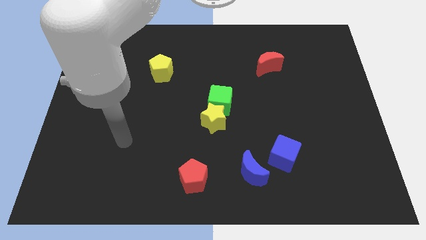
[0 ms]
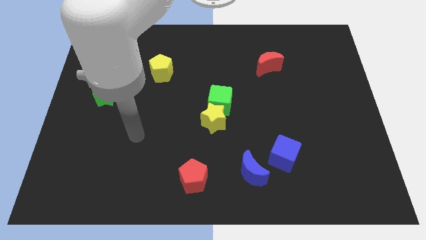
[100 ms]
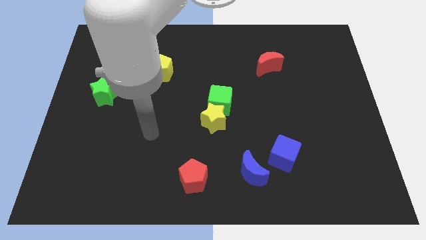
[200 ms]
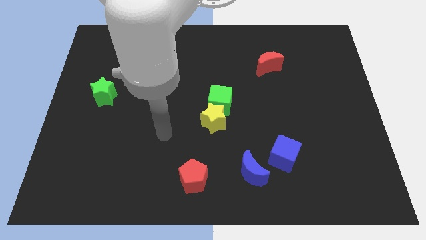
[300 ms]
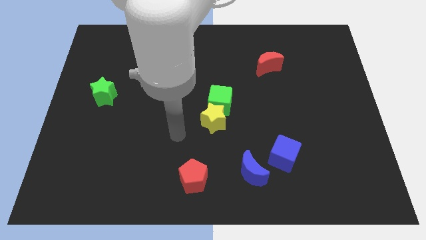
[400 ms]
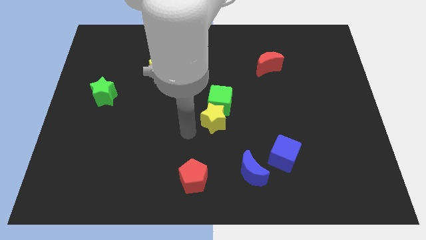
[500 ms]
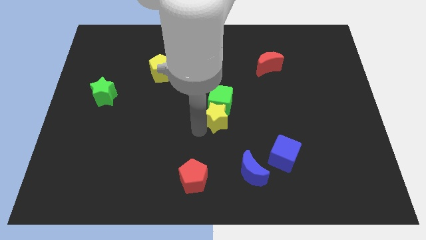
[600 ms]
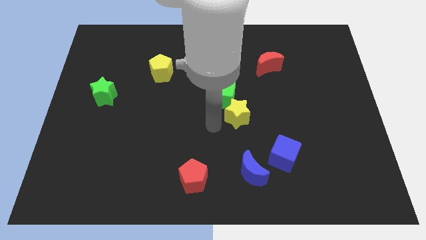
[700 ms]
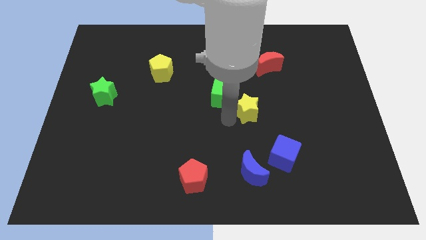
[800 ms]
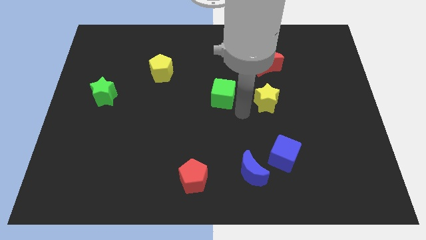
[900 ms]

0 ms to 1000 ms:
separate the green cube from the yellow star

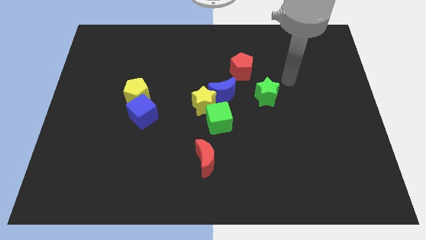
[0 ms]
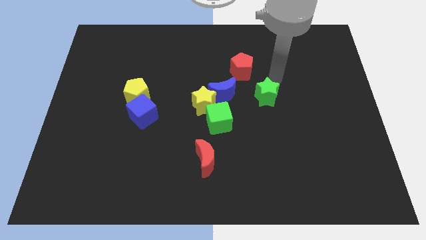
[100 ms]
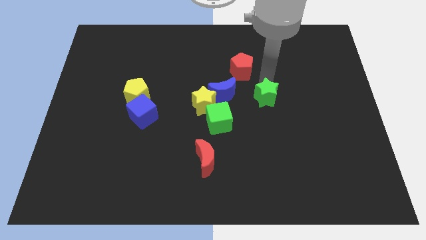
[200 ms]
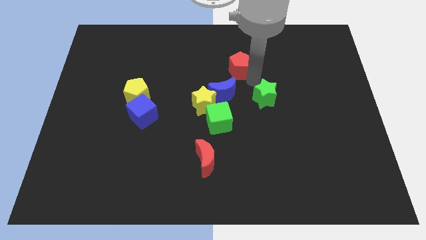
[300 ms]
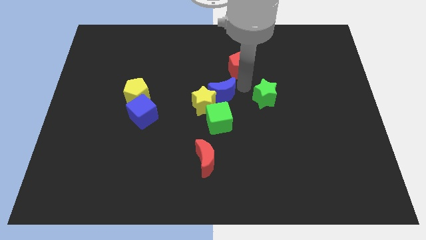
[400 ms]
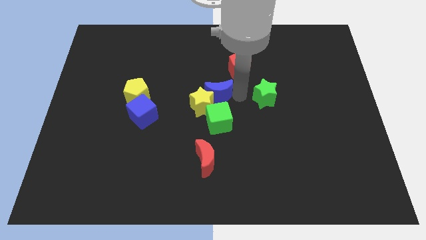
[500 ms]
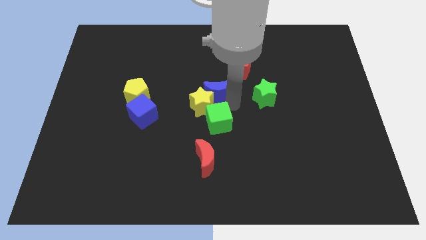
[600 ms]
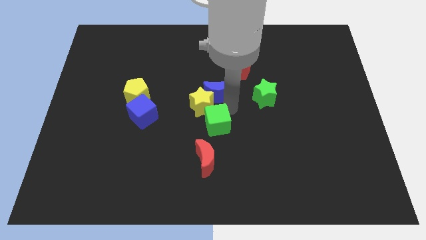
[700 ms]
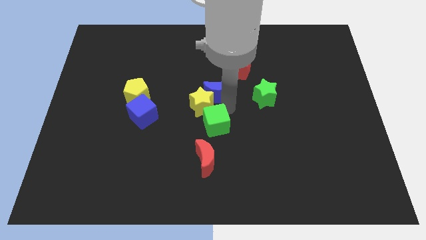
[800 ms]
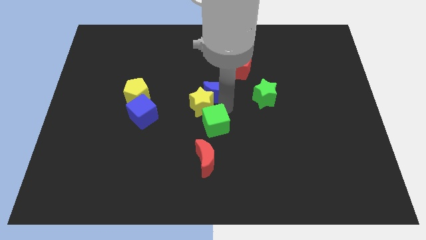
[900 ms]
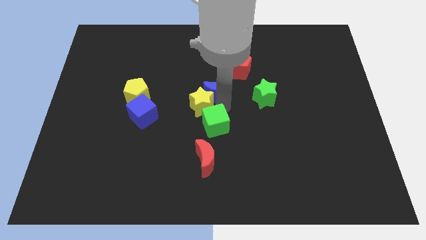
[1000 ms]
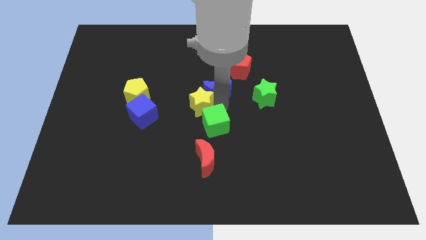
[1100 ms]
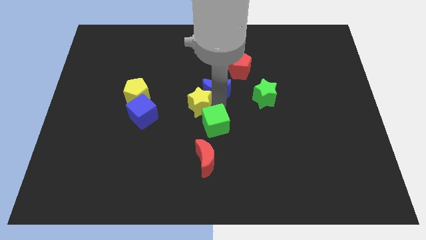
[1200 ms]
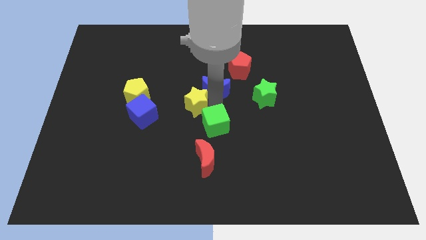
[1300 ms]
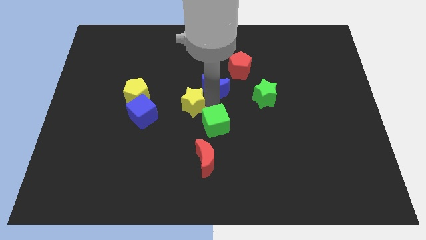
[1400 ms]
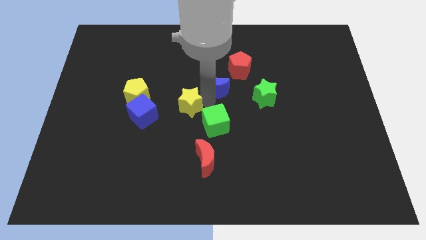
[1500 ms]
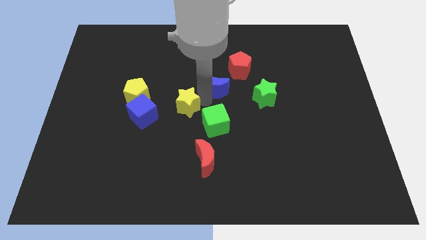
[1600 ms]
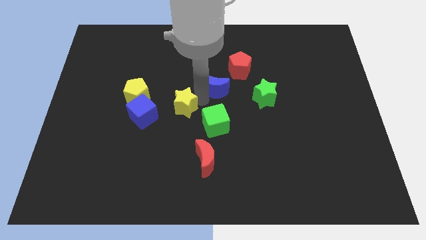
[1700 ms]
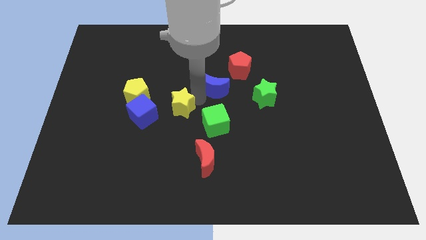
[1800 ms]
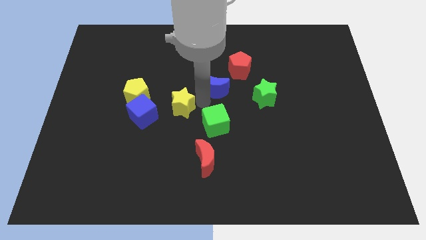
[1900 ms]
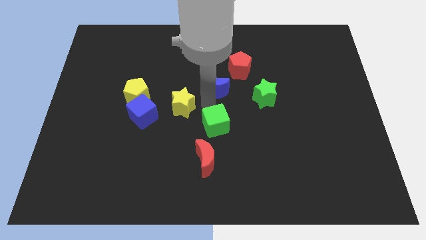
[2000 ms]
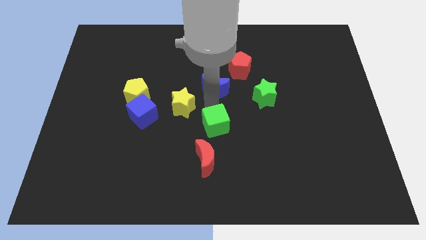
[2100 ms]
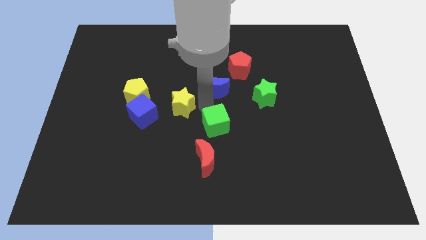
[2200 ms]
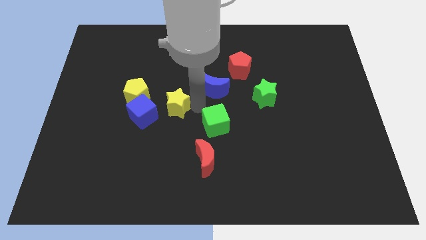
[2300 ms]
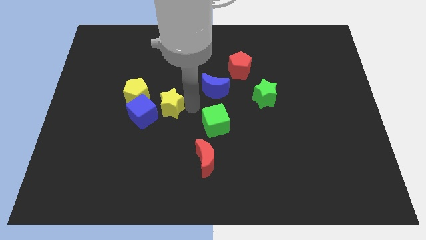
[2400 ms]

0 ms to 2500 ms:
separate the yellow star from the blue moon and green cube

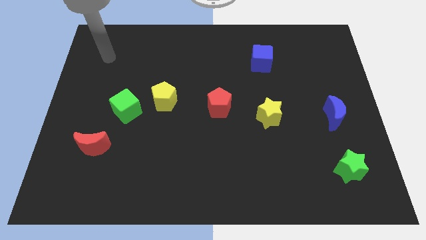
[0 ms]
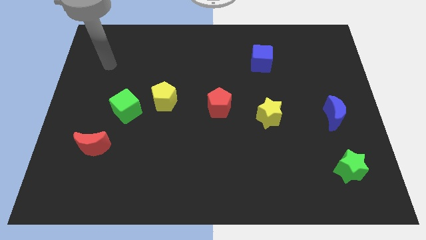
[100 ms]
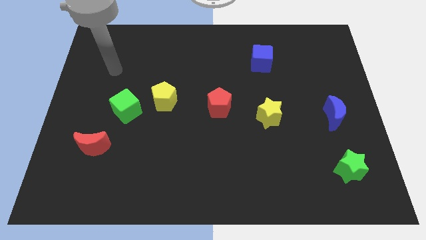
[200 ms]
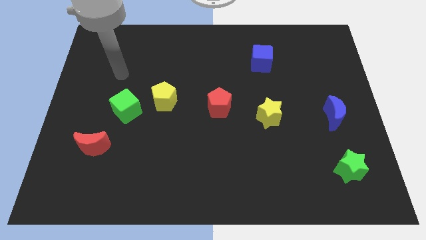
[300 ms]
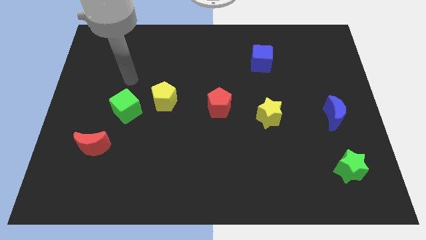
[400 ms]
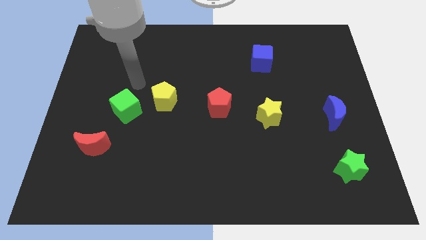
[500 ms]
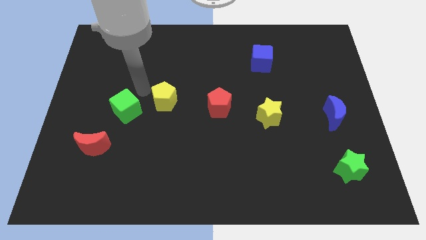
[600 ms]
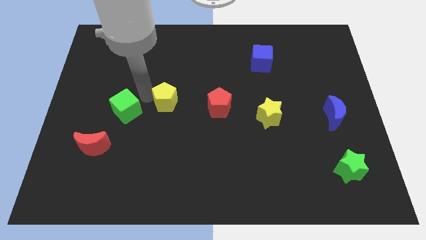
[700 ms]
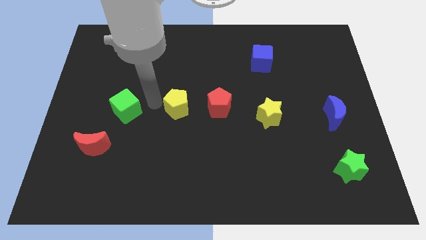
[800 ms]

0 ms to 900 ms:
move the green cube away from the yellow pentagon

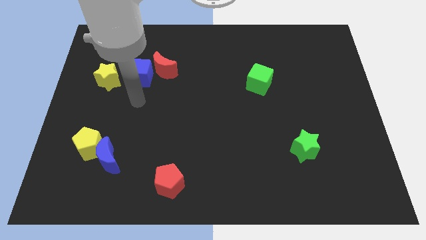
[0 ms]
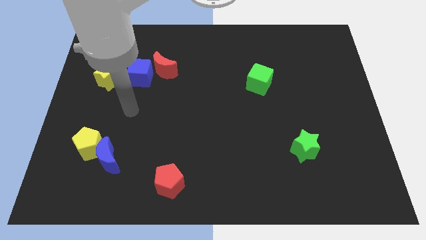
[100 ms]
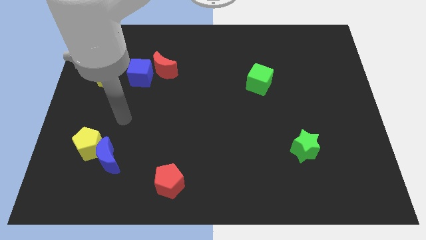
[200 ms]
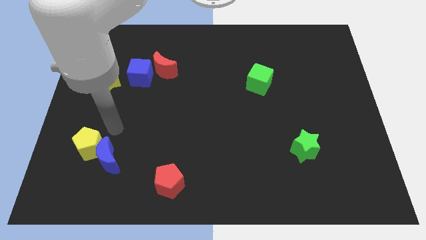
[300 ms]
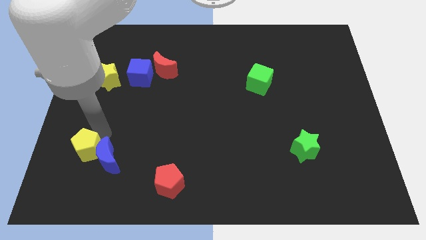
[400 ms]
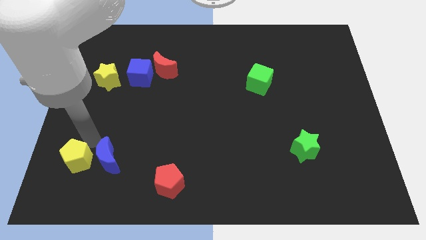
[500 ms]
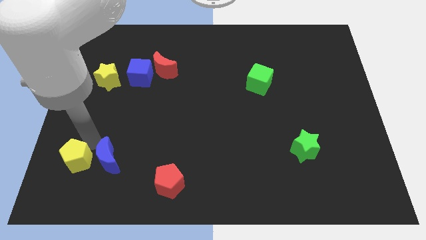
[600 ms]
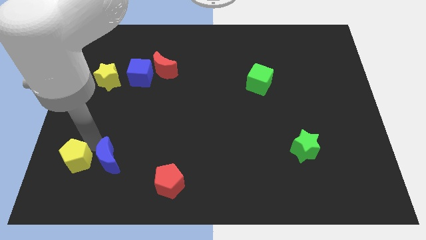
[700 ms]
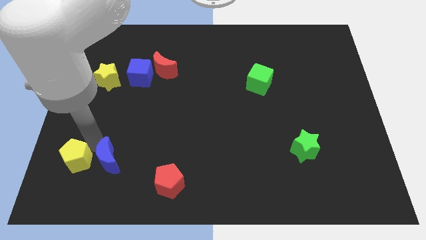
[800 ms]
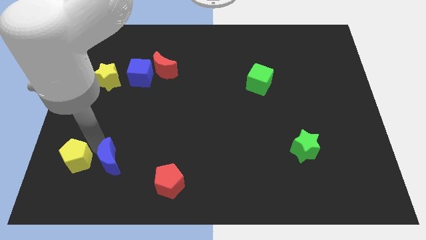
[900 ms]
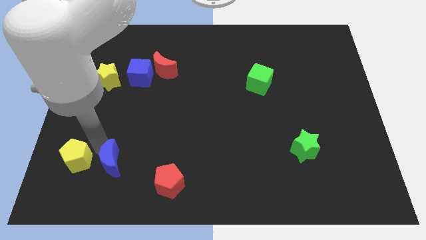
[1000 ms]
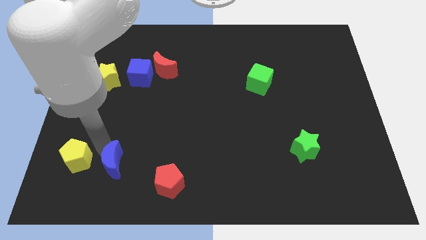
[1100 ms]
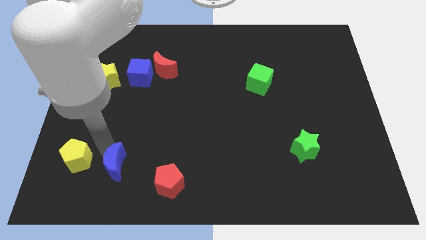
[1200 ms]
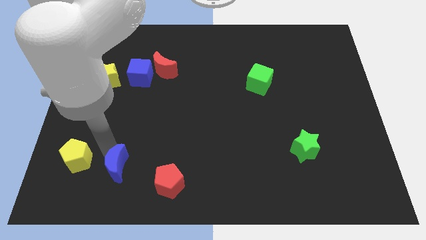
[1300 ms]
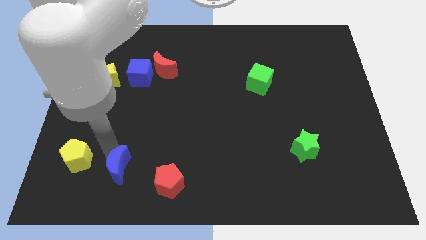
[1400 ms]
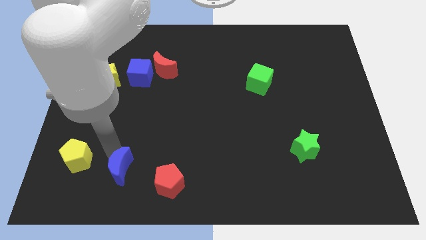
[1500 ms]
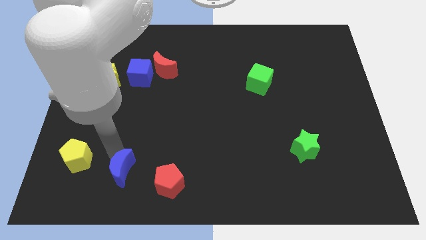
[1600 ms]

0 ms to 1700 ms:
separate the blue moon from the yellow pentagon

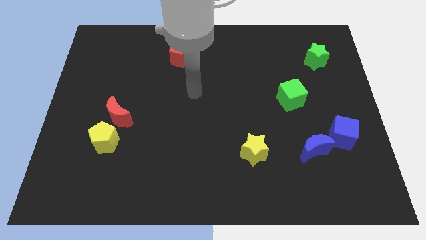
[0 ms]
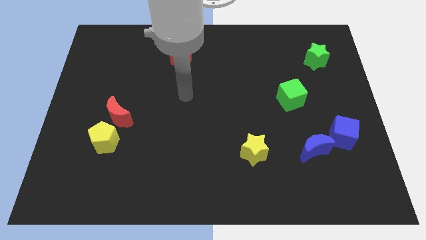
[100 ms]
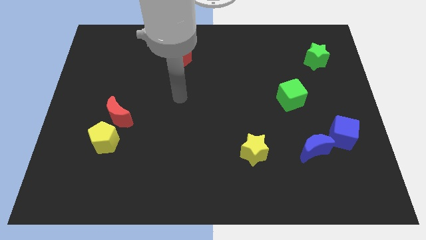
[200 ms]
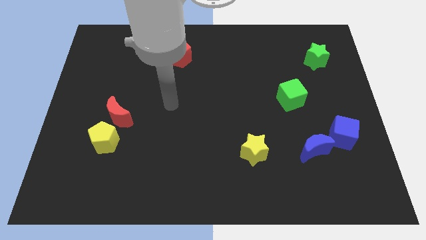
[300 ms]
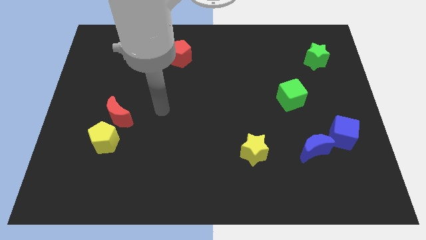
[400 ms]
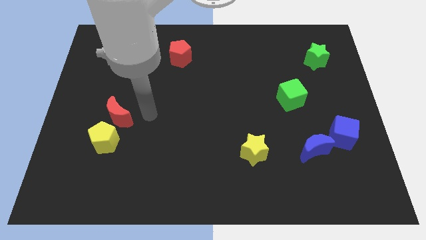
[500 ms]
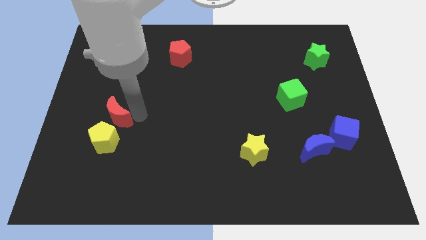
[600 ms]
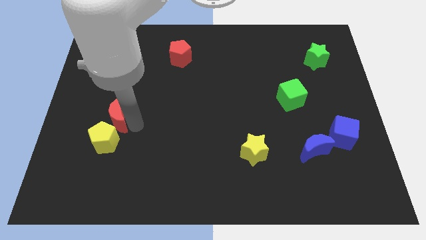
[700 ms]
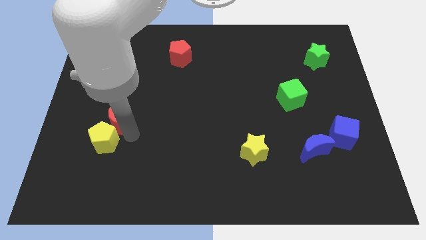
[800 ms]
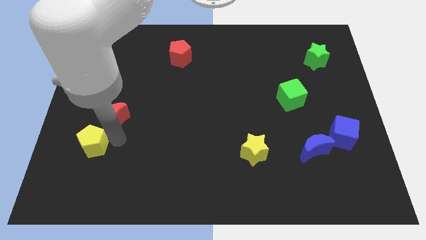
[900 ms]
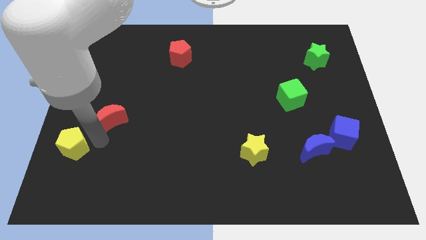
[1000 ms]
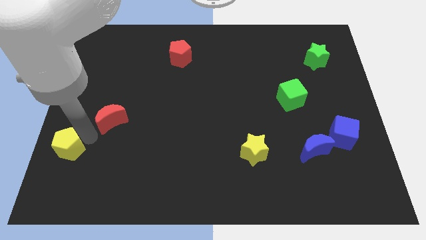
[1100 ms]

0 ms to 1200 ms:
pull the red moon apart from the yellow pentagon

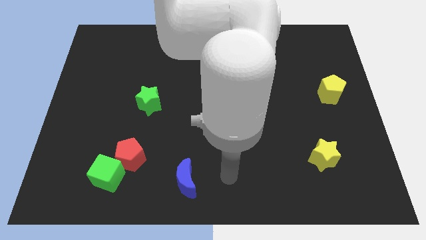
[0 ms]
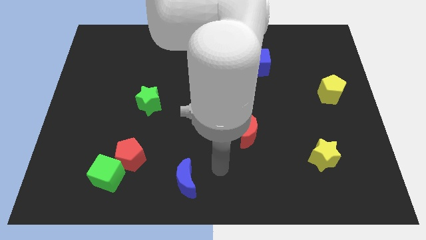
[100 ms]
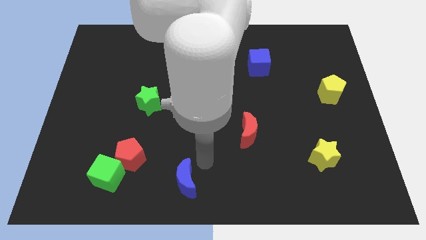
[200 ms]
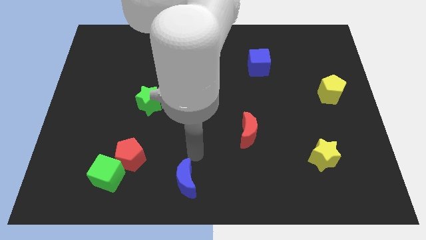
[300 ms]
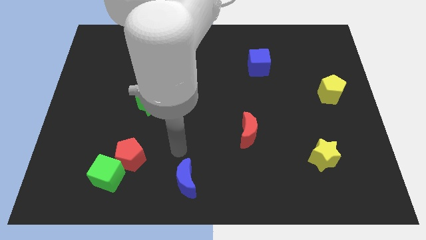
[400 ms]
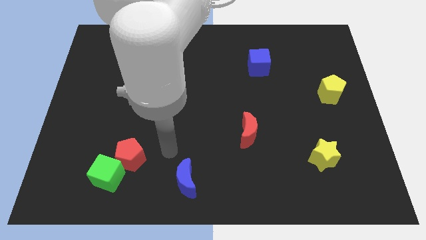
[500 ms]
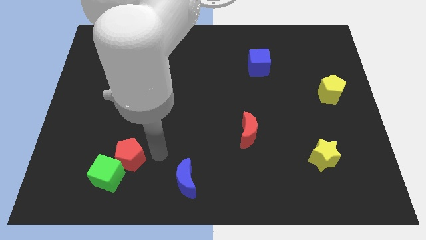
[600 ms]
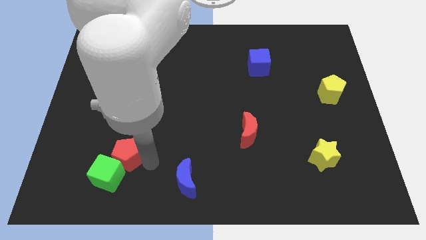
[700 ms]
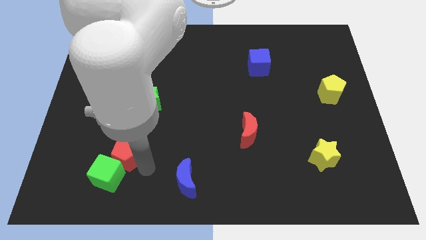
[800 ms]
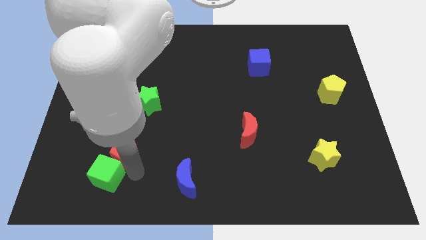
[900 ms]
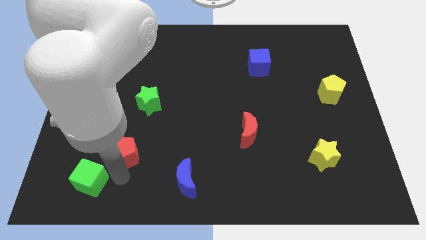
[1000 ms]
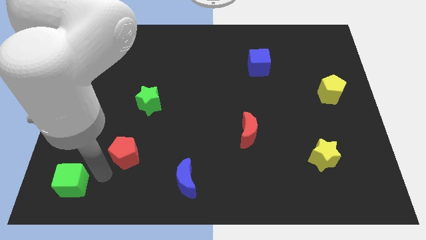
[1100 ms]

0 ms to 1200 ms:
pull the red pentagon apart from the green cube

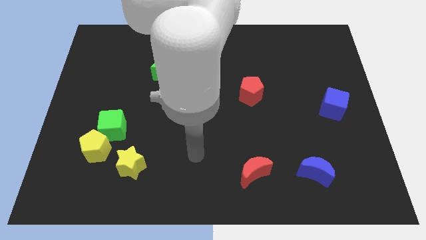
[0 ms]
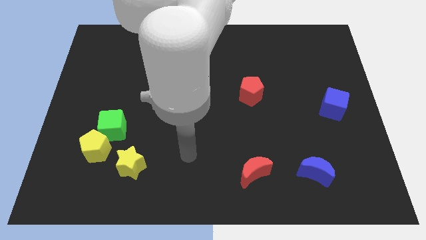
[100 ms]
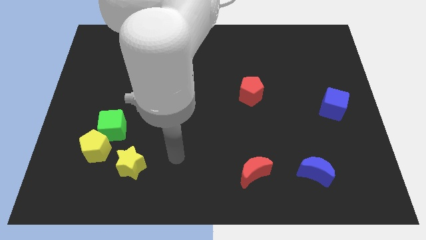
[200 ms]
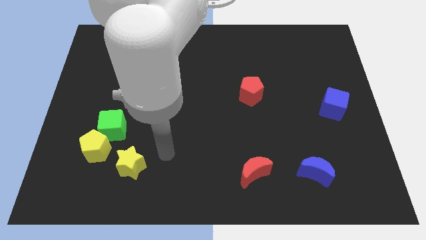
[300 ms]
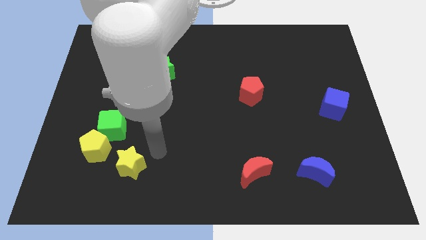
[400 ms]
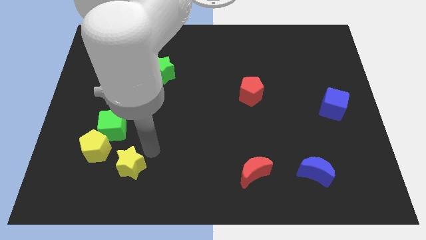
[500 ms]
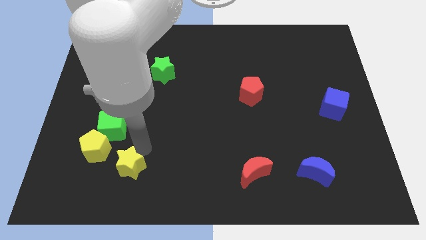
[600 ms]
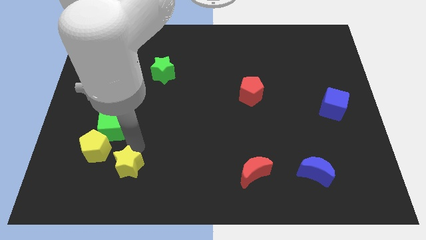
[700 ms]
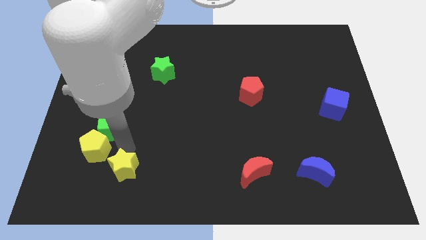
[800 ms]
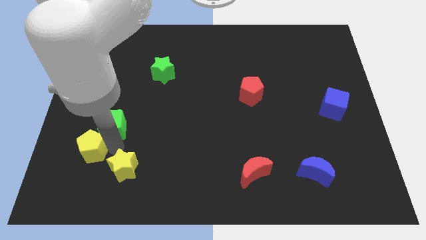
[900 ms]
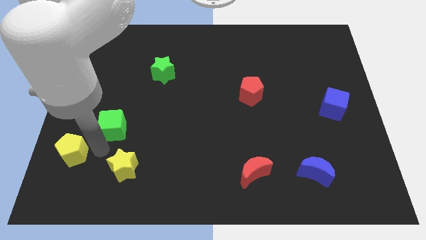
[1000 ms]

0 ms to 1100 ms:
separate the green cube from the yellow pentagon
